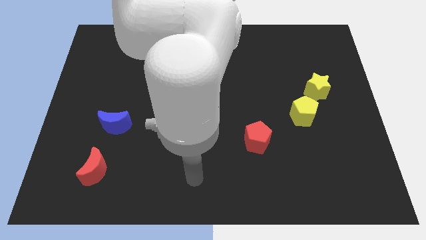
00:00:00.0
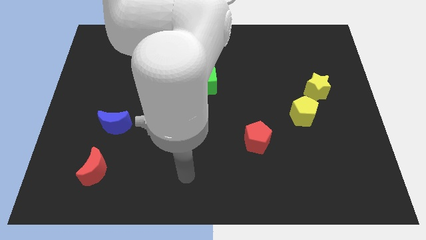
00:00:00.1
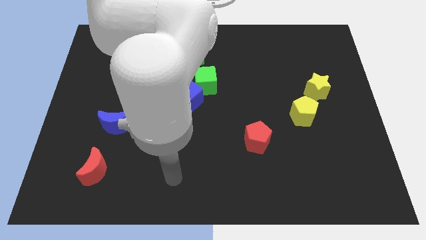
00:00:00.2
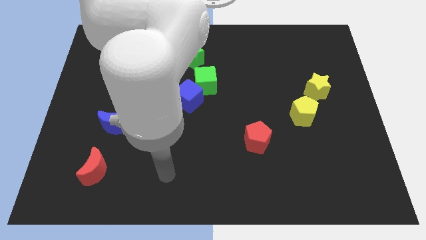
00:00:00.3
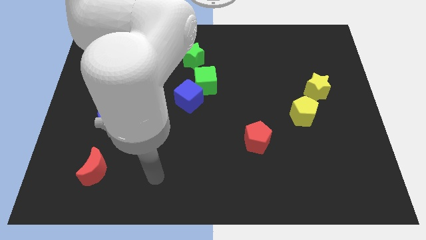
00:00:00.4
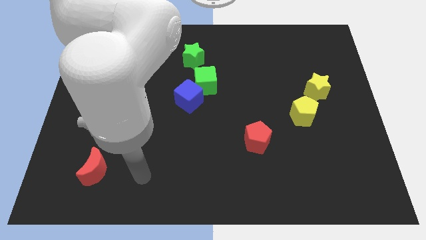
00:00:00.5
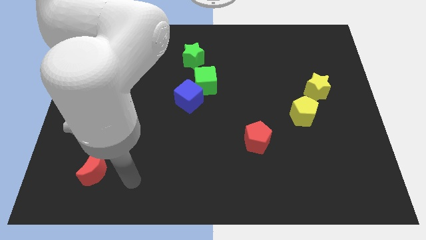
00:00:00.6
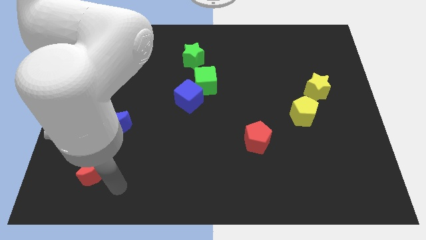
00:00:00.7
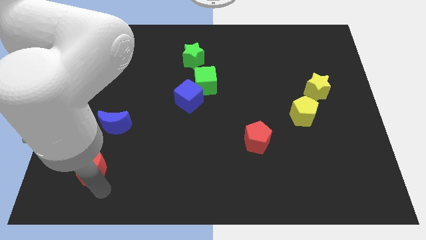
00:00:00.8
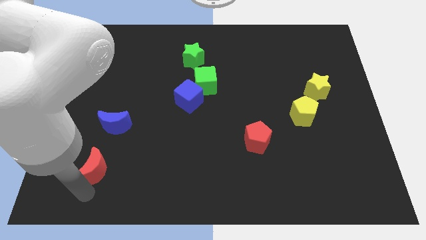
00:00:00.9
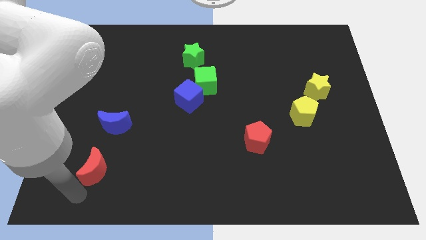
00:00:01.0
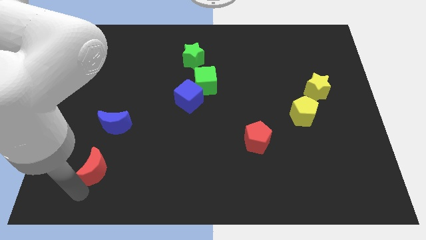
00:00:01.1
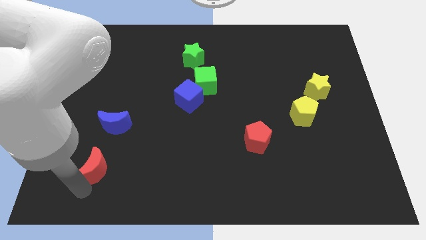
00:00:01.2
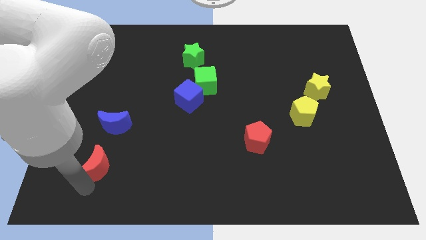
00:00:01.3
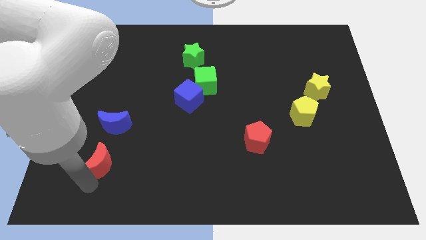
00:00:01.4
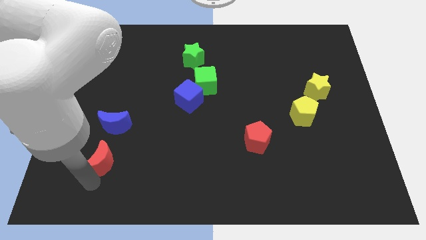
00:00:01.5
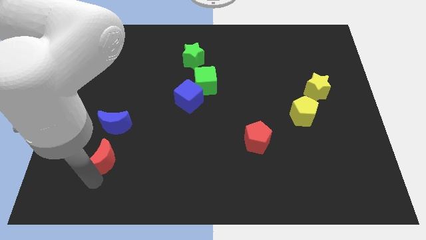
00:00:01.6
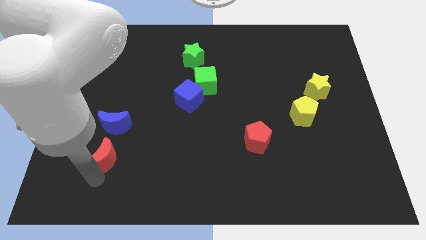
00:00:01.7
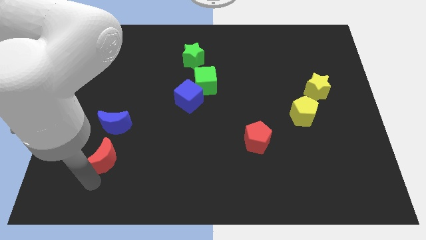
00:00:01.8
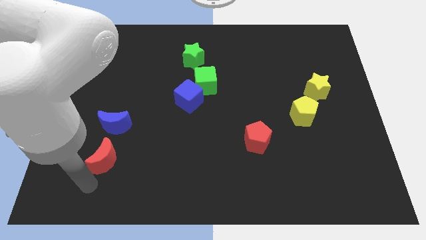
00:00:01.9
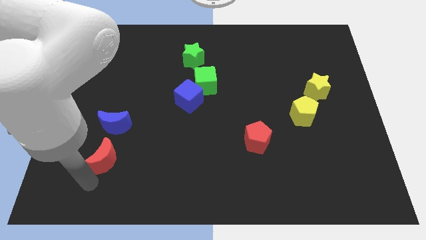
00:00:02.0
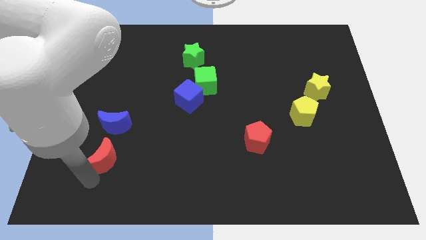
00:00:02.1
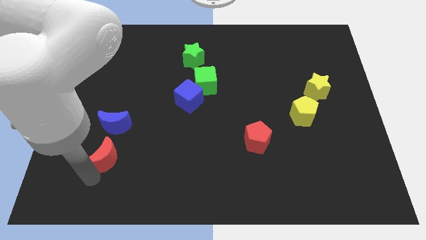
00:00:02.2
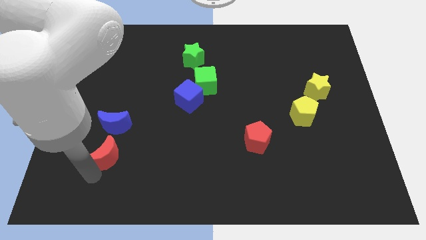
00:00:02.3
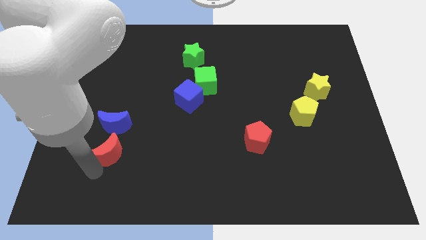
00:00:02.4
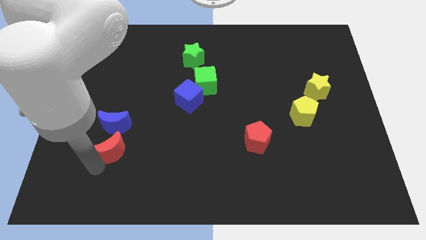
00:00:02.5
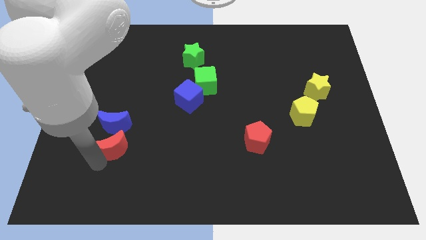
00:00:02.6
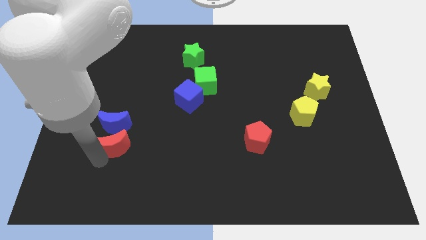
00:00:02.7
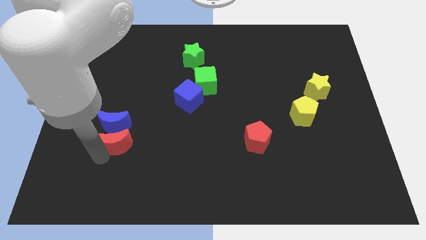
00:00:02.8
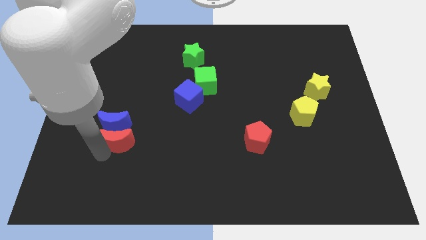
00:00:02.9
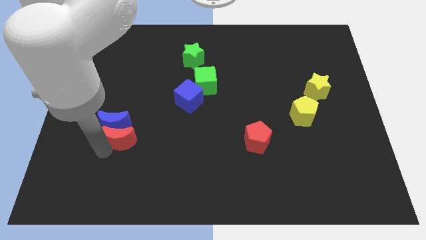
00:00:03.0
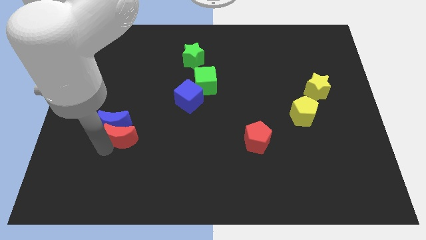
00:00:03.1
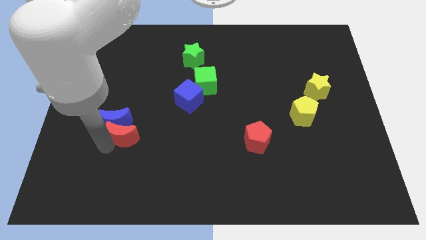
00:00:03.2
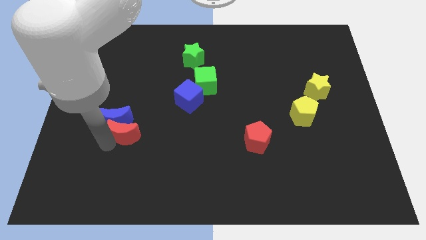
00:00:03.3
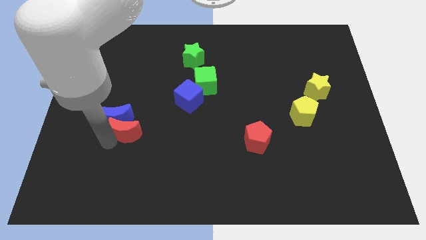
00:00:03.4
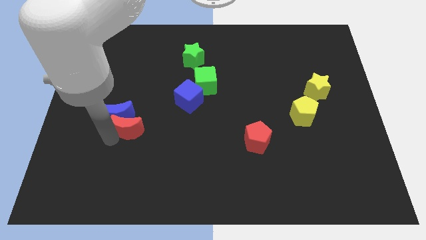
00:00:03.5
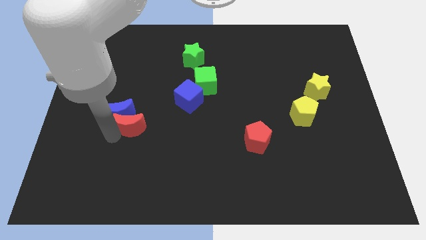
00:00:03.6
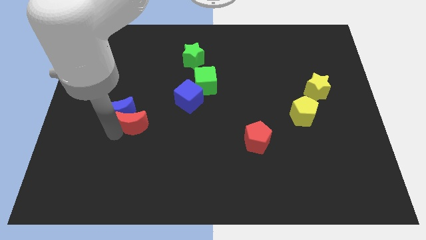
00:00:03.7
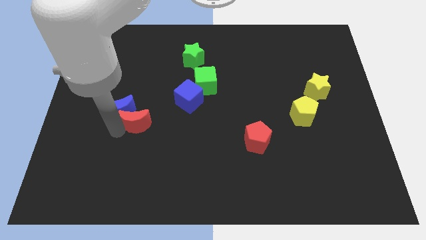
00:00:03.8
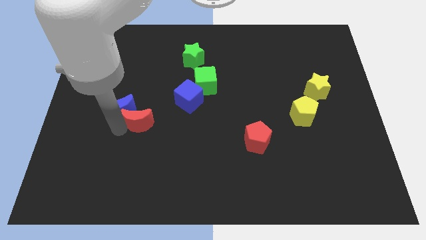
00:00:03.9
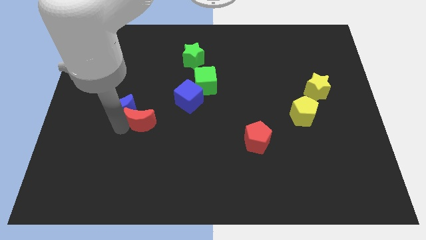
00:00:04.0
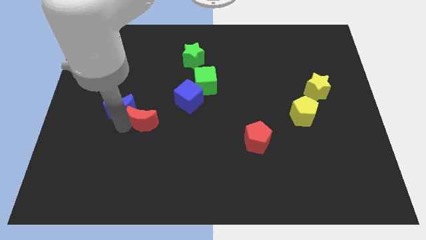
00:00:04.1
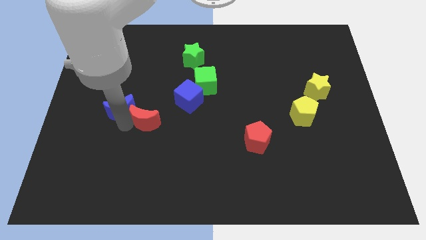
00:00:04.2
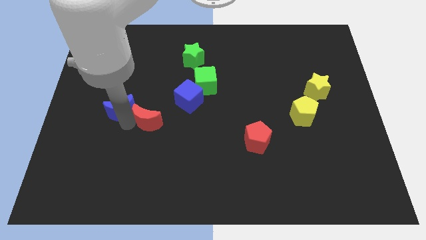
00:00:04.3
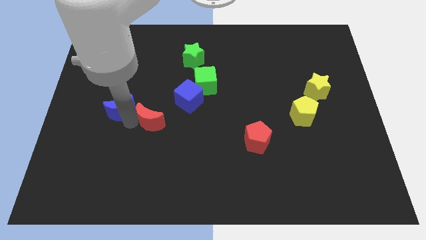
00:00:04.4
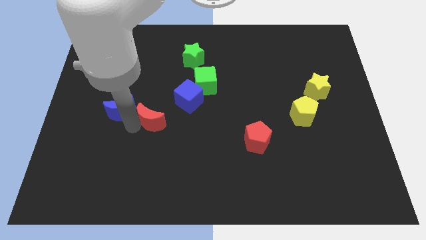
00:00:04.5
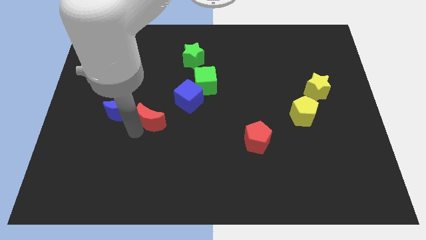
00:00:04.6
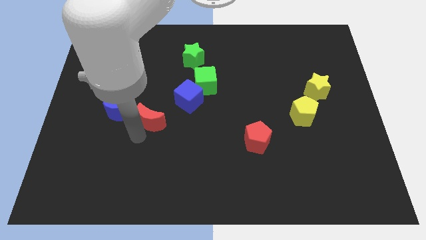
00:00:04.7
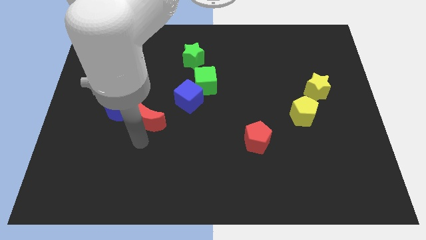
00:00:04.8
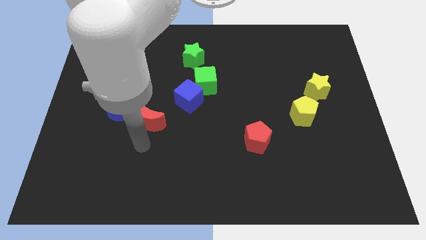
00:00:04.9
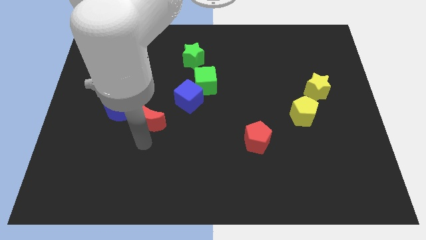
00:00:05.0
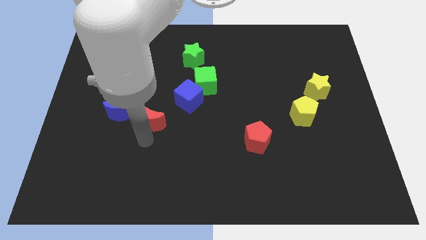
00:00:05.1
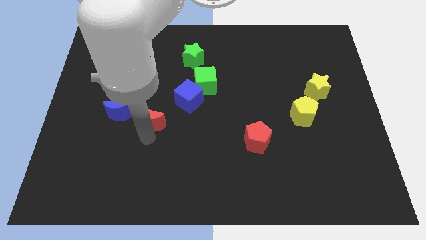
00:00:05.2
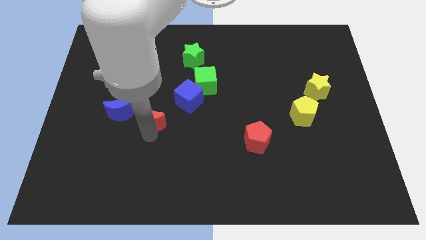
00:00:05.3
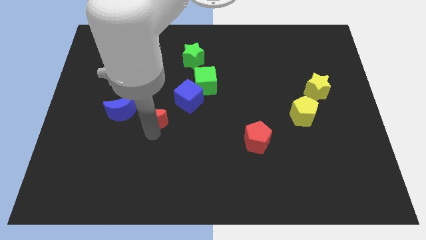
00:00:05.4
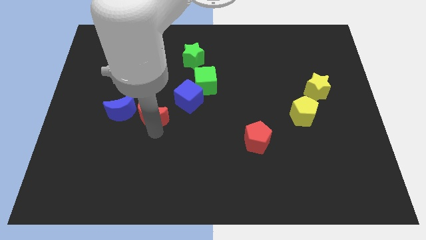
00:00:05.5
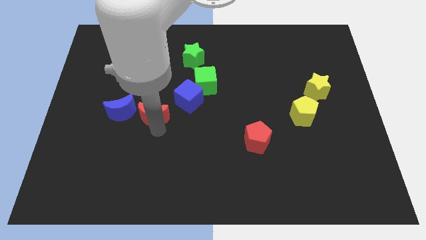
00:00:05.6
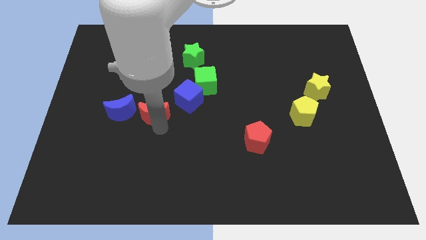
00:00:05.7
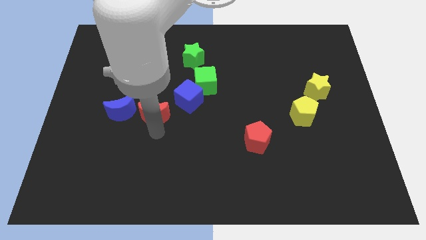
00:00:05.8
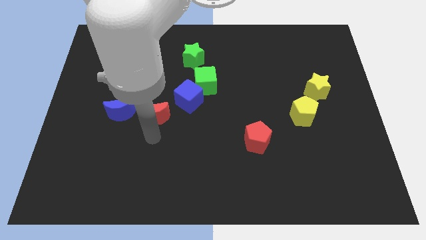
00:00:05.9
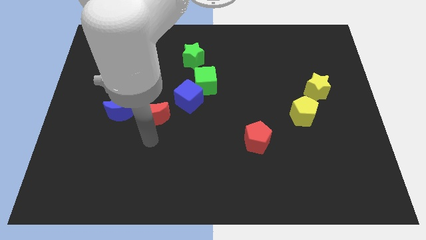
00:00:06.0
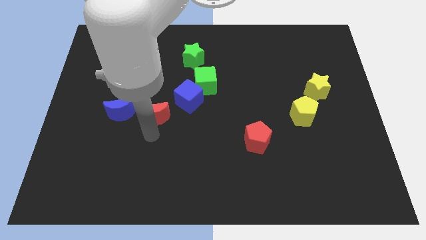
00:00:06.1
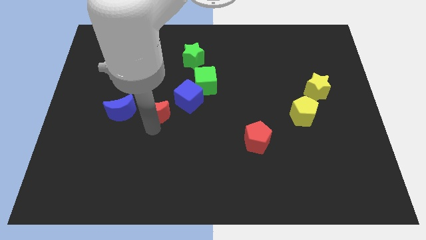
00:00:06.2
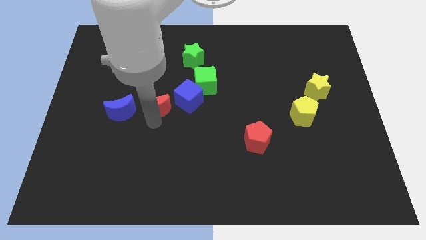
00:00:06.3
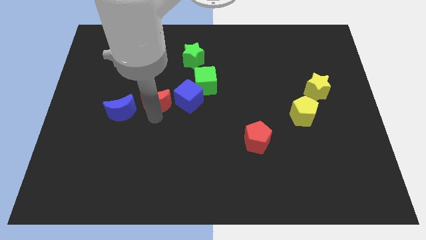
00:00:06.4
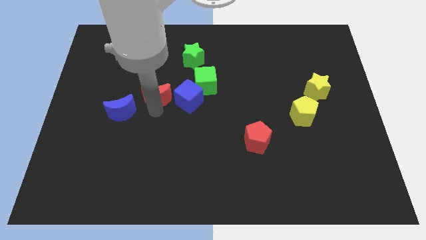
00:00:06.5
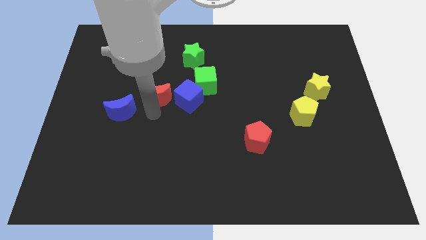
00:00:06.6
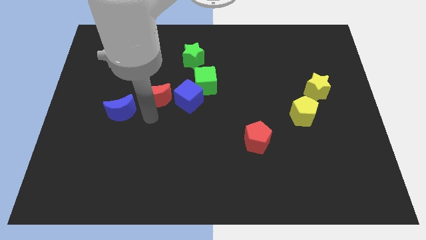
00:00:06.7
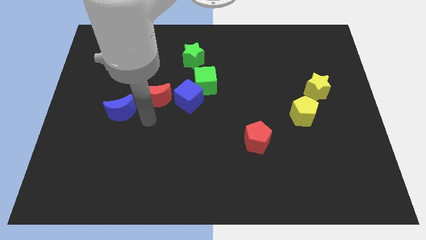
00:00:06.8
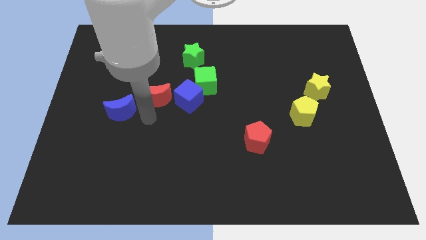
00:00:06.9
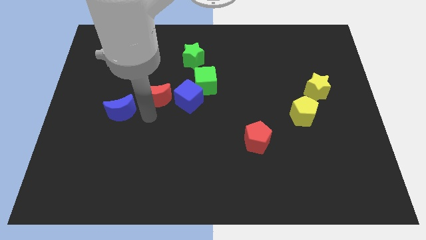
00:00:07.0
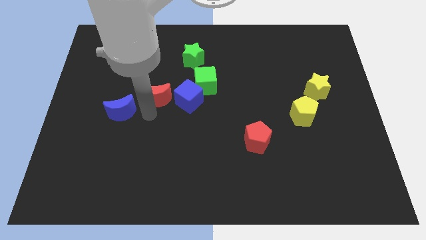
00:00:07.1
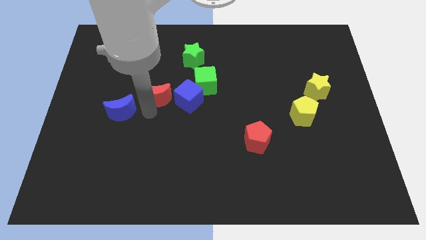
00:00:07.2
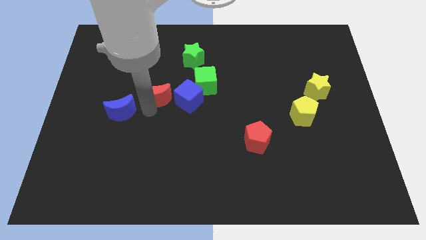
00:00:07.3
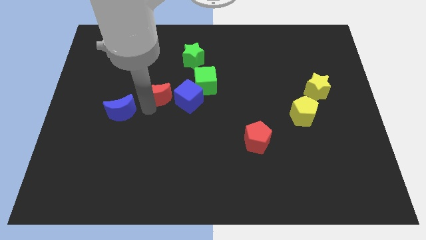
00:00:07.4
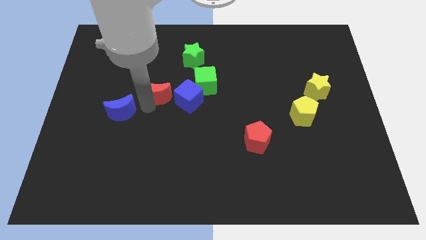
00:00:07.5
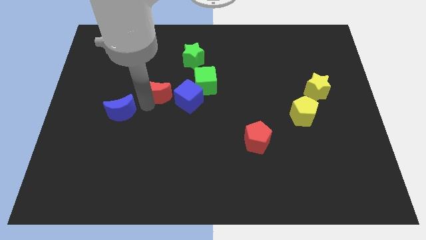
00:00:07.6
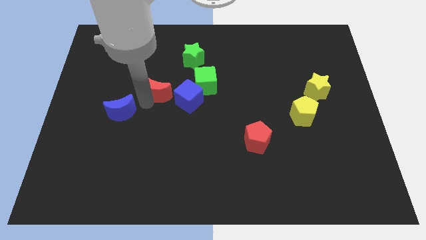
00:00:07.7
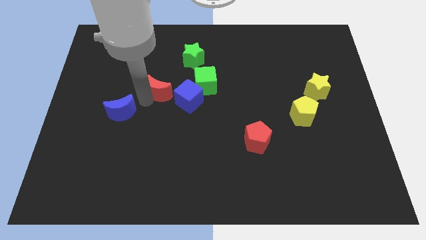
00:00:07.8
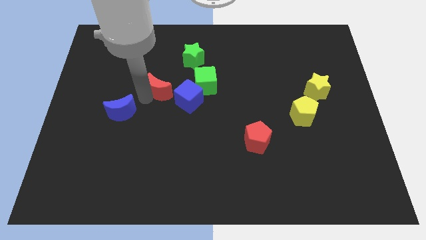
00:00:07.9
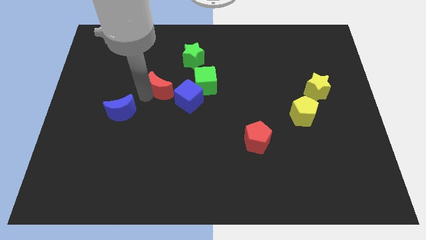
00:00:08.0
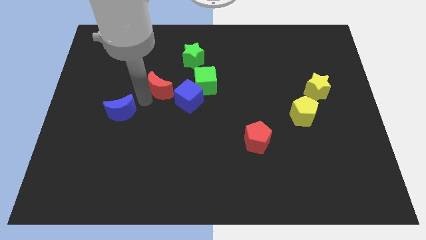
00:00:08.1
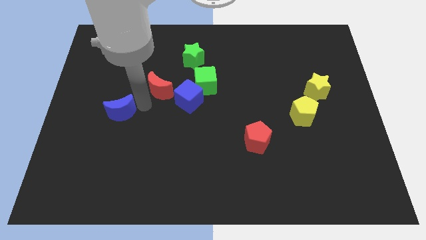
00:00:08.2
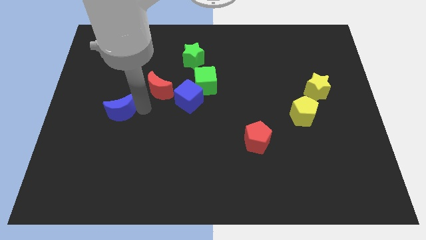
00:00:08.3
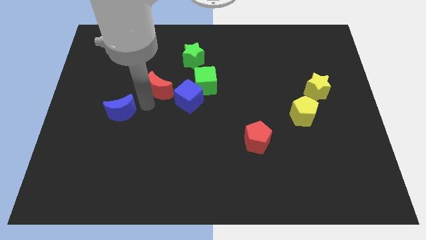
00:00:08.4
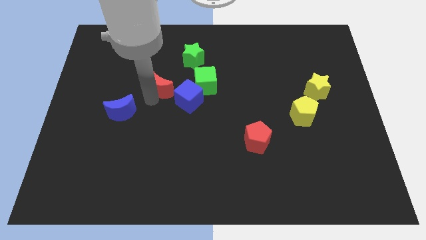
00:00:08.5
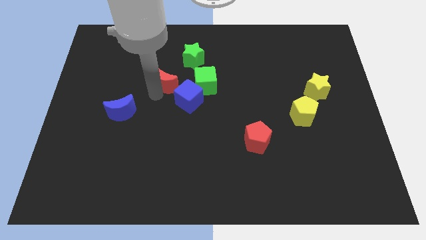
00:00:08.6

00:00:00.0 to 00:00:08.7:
put the red moon diagonally down and to the left of the green star
